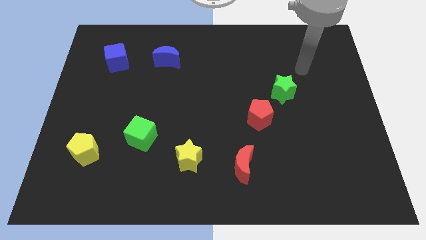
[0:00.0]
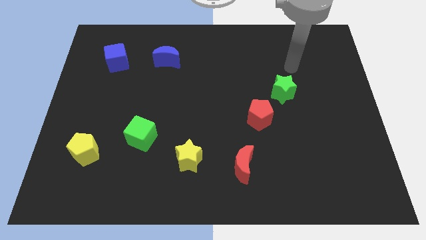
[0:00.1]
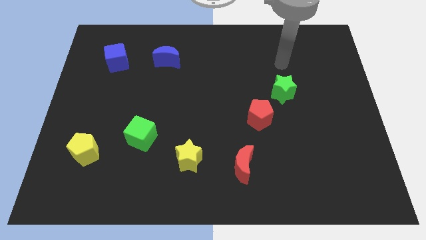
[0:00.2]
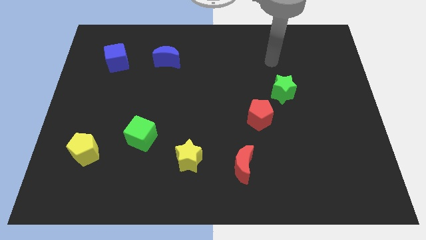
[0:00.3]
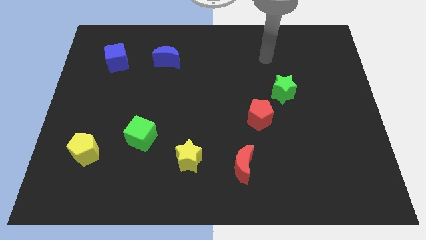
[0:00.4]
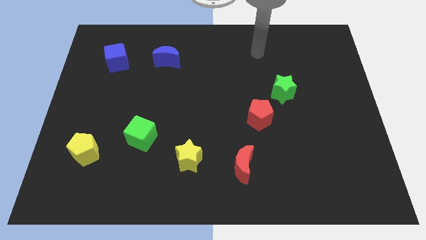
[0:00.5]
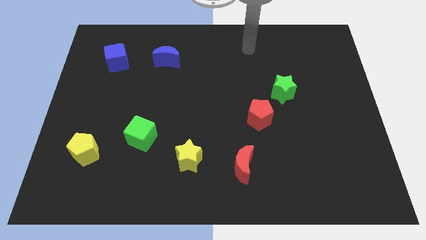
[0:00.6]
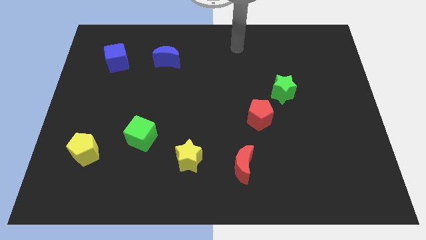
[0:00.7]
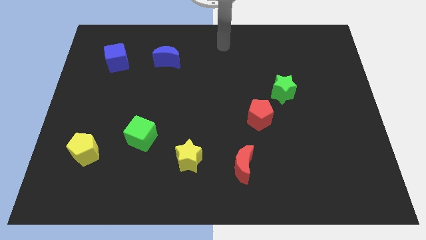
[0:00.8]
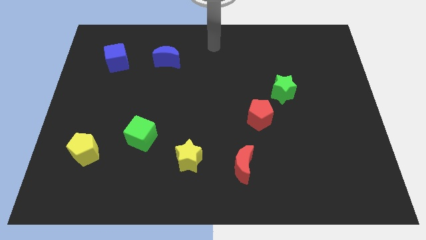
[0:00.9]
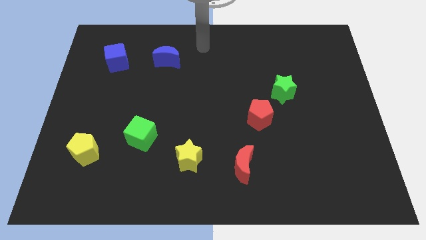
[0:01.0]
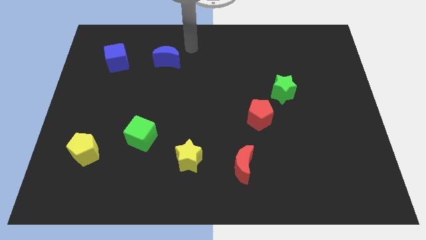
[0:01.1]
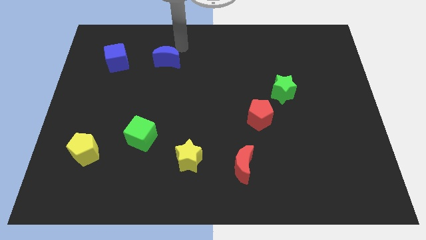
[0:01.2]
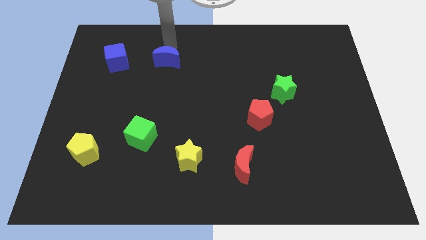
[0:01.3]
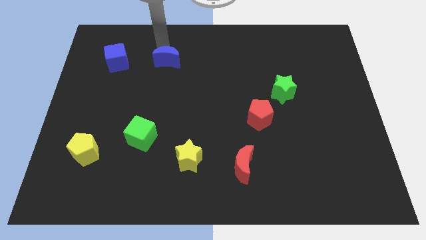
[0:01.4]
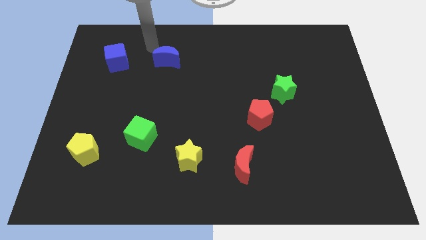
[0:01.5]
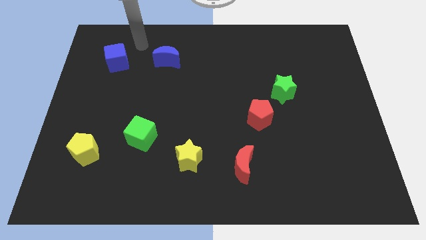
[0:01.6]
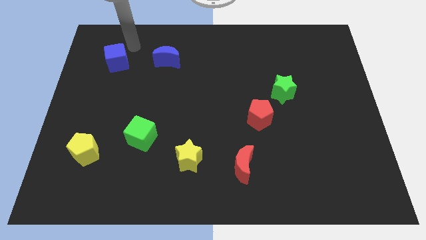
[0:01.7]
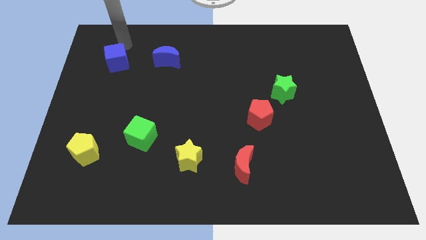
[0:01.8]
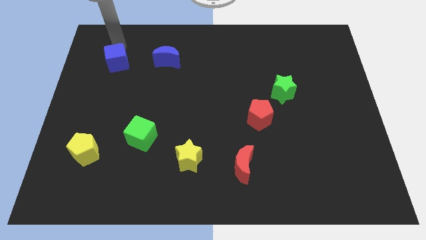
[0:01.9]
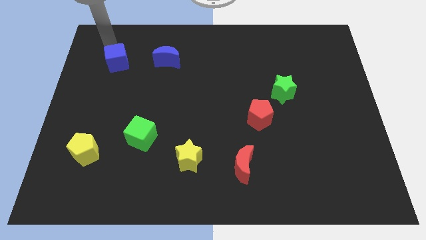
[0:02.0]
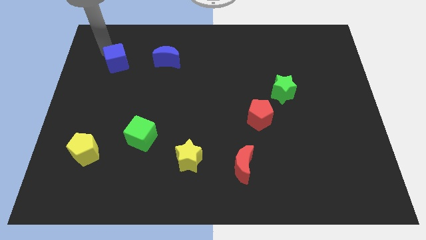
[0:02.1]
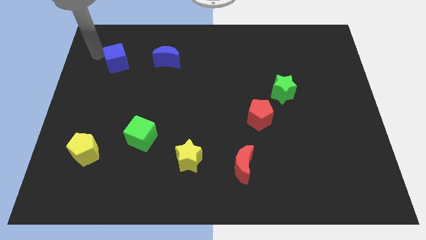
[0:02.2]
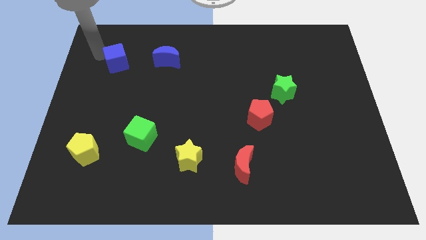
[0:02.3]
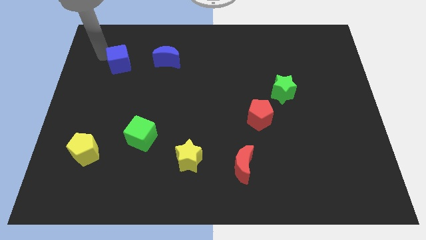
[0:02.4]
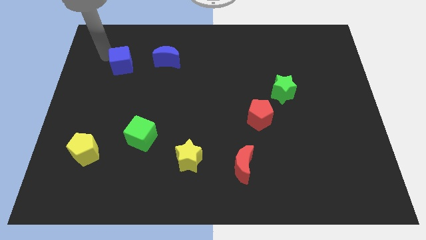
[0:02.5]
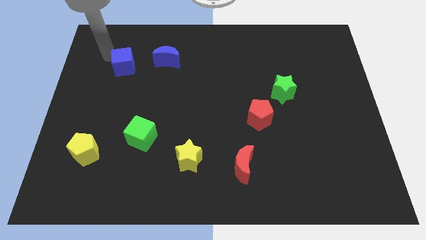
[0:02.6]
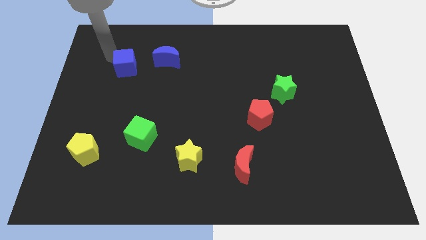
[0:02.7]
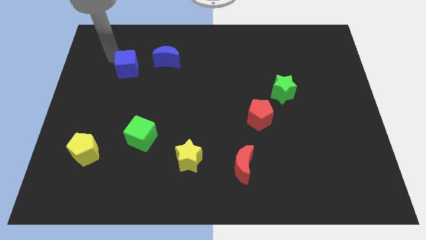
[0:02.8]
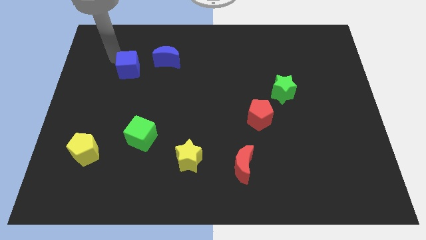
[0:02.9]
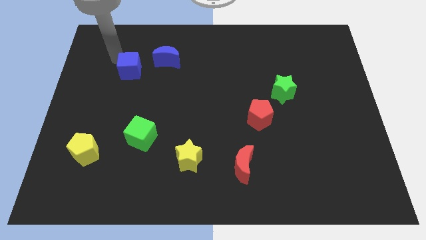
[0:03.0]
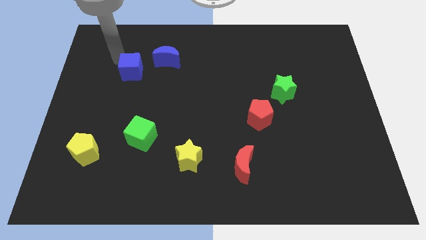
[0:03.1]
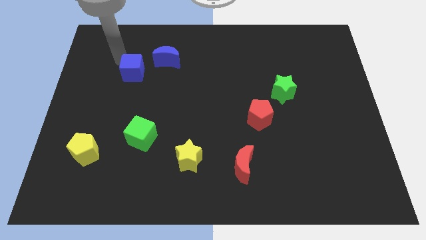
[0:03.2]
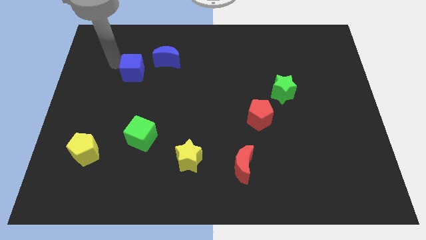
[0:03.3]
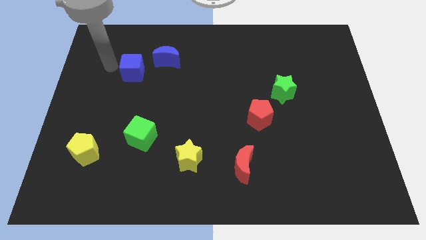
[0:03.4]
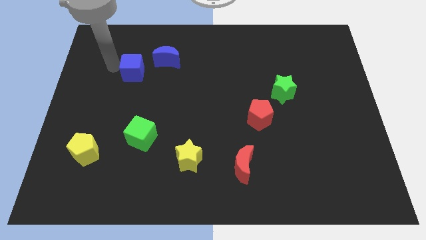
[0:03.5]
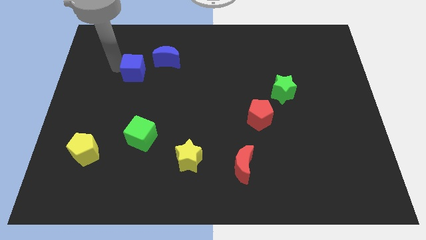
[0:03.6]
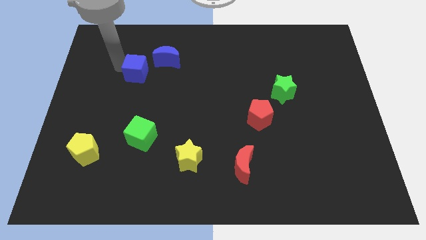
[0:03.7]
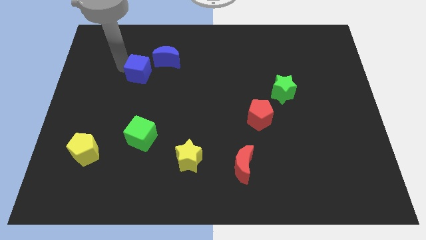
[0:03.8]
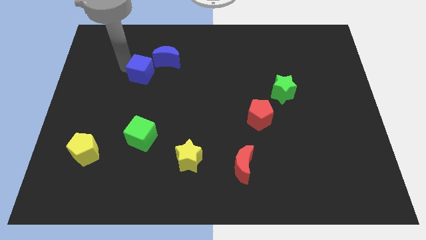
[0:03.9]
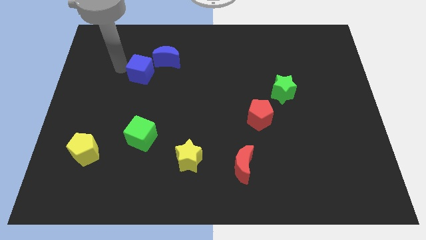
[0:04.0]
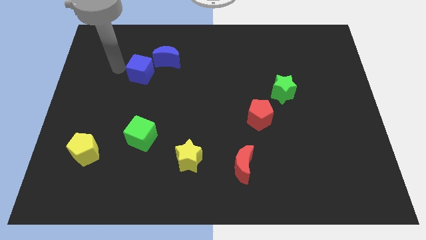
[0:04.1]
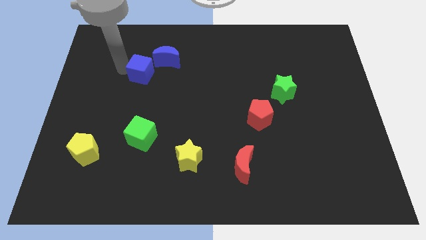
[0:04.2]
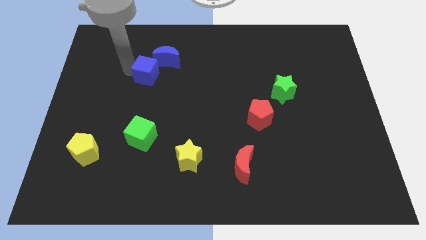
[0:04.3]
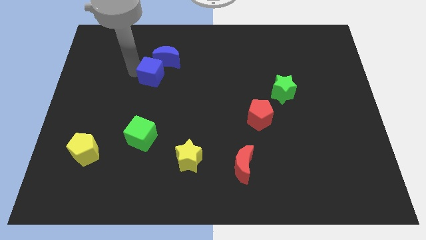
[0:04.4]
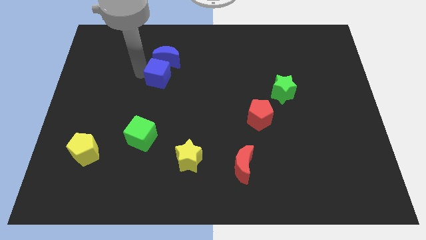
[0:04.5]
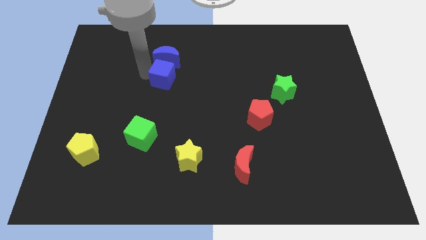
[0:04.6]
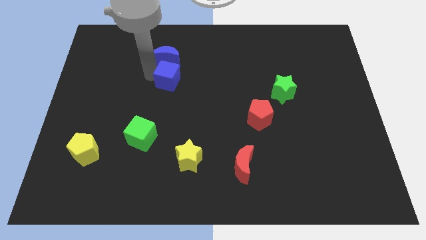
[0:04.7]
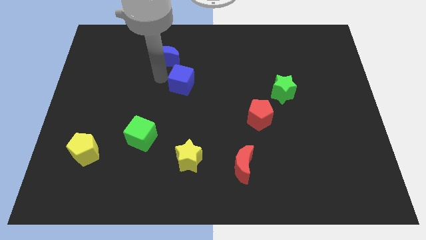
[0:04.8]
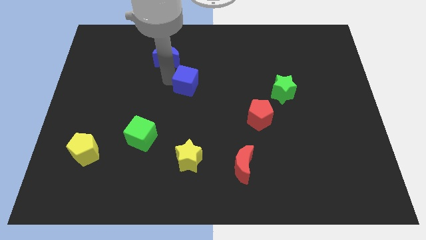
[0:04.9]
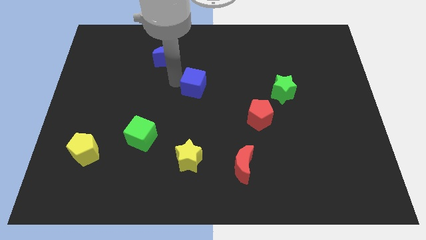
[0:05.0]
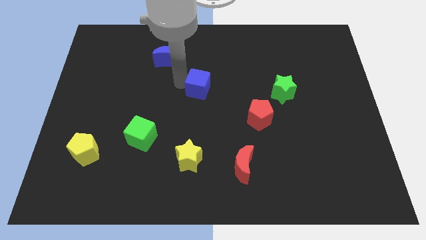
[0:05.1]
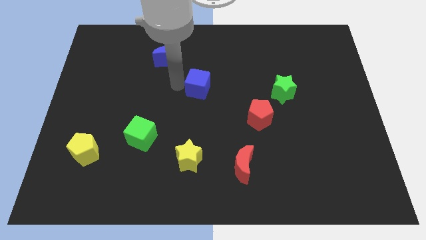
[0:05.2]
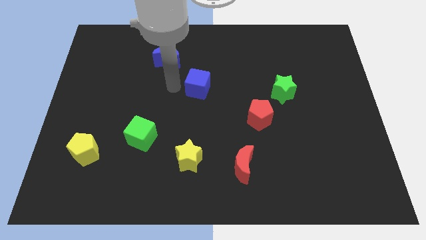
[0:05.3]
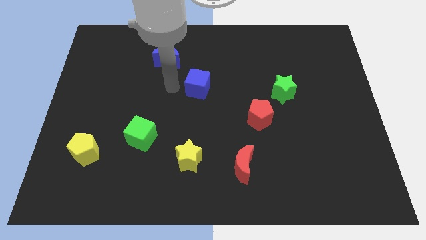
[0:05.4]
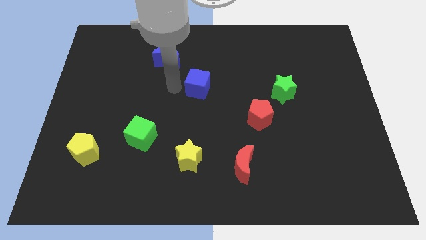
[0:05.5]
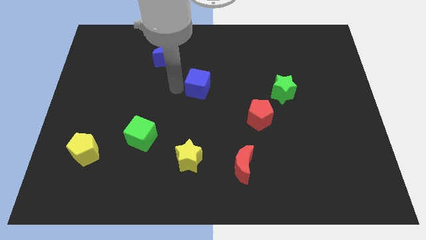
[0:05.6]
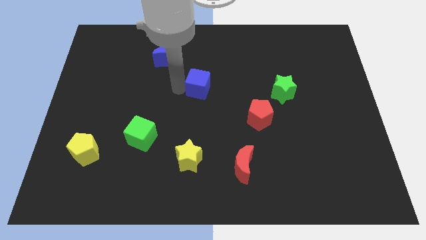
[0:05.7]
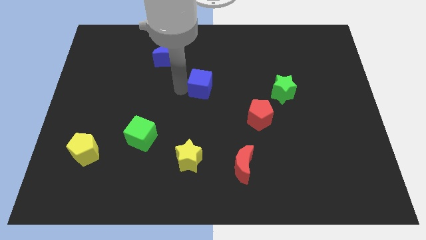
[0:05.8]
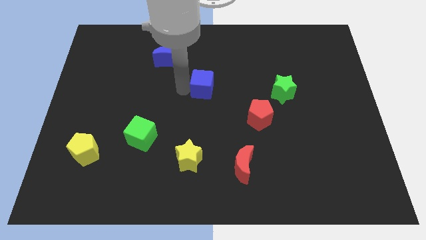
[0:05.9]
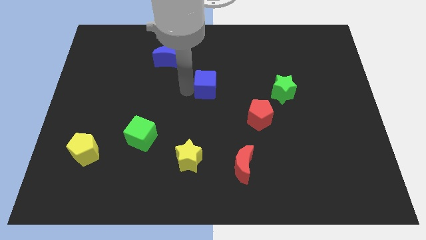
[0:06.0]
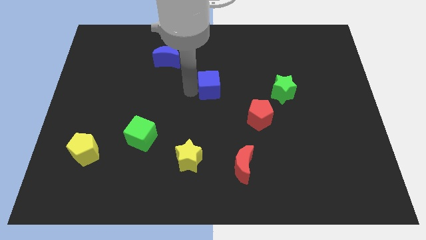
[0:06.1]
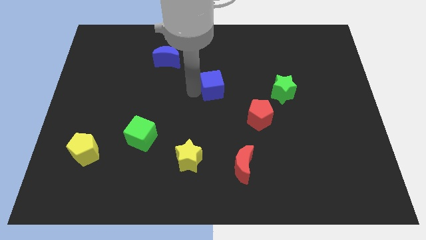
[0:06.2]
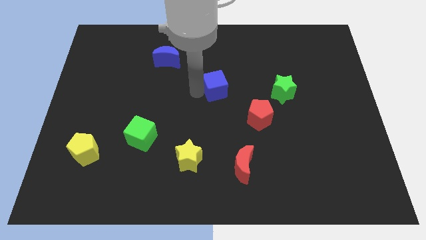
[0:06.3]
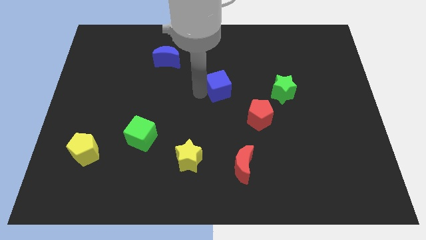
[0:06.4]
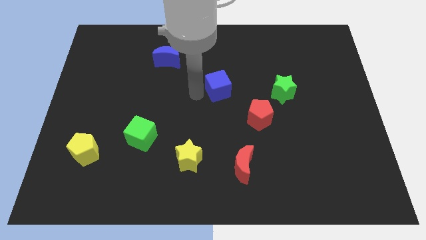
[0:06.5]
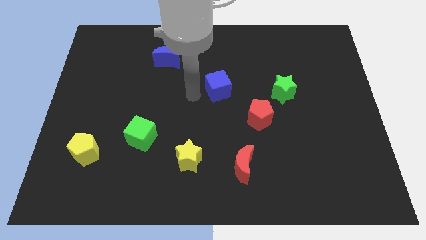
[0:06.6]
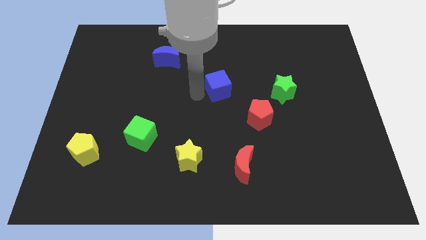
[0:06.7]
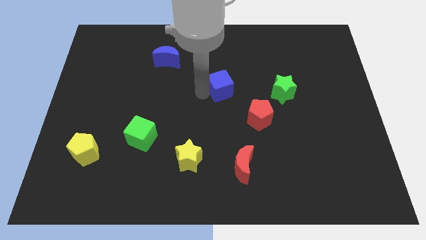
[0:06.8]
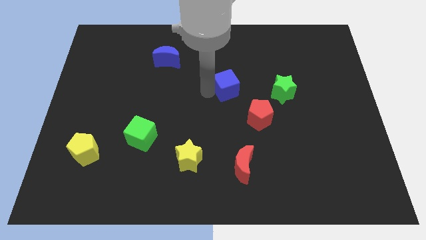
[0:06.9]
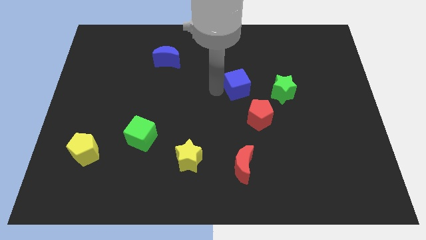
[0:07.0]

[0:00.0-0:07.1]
move the blue cube above the red pentagon

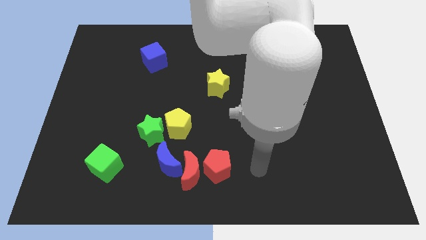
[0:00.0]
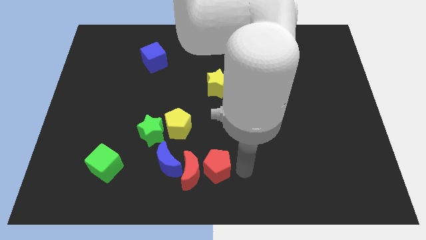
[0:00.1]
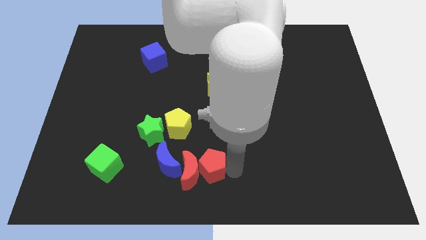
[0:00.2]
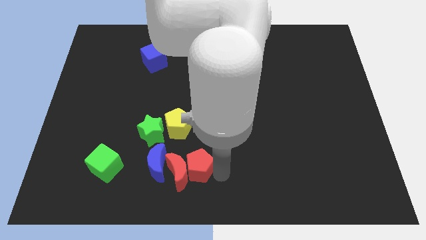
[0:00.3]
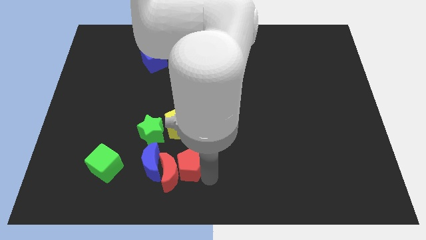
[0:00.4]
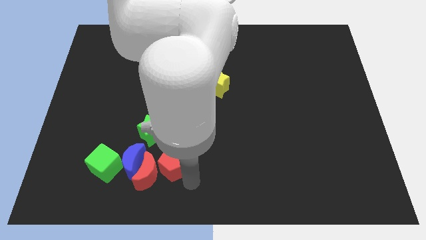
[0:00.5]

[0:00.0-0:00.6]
slide the blue moon diagonally up and to the right of the green cube
